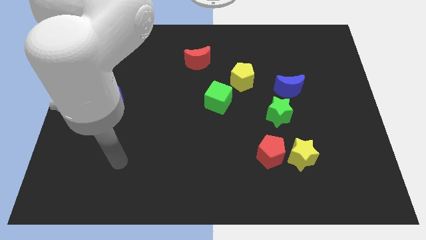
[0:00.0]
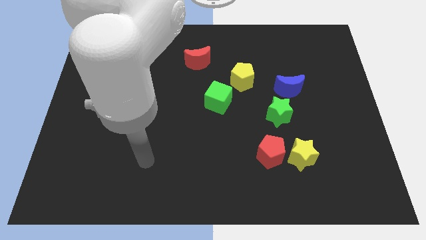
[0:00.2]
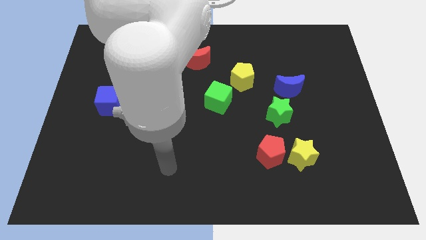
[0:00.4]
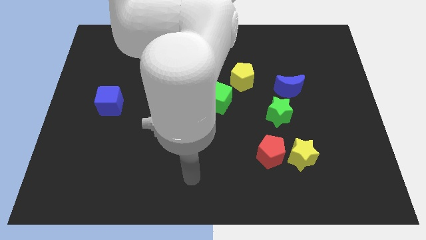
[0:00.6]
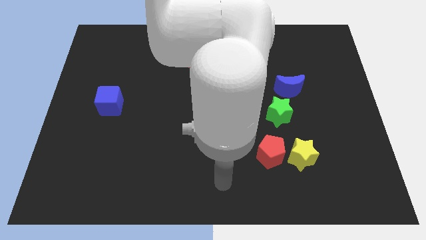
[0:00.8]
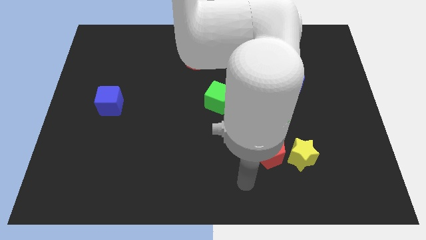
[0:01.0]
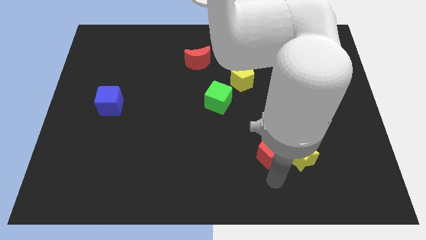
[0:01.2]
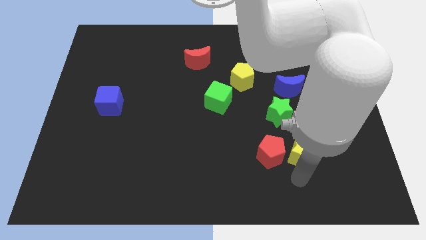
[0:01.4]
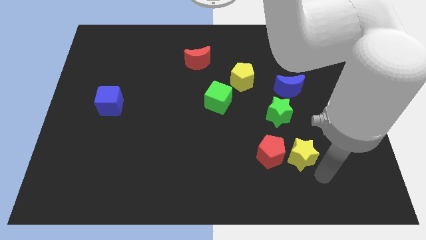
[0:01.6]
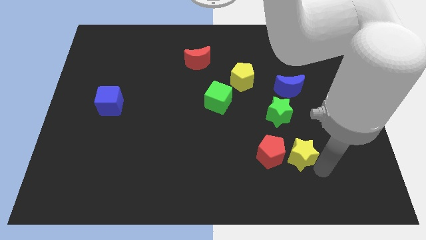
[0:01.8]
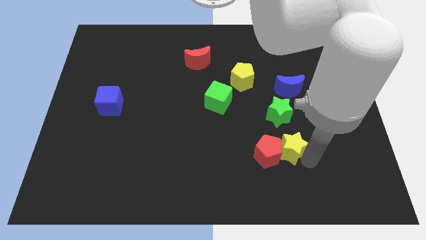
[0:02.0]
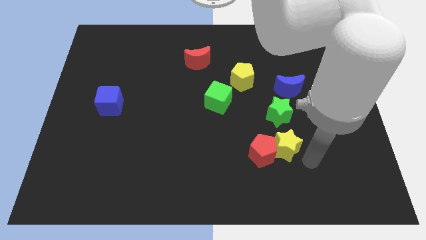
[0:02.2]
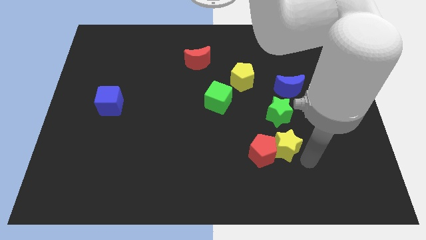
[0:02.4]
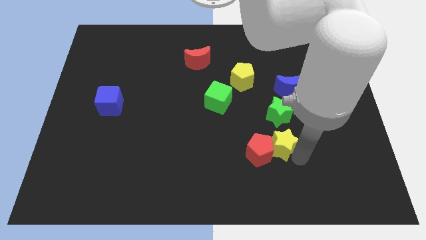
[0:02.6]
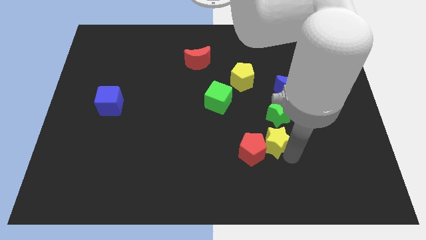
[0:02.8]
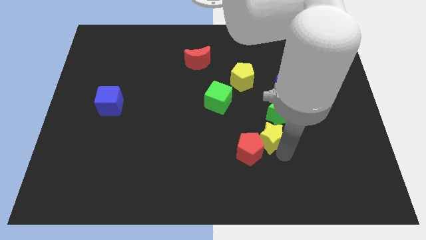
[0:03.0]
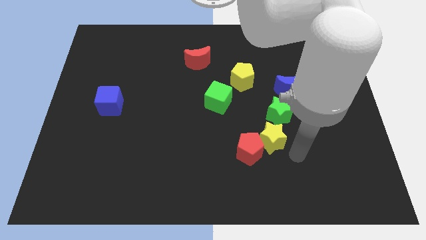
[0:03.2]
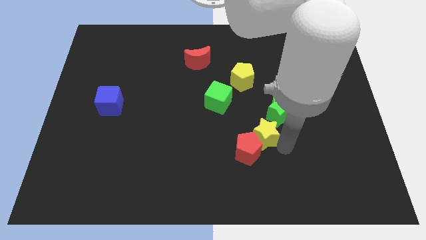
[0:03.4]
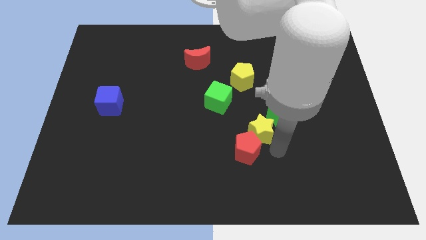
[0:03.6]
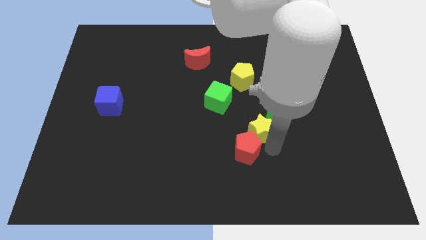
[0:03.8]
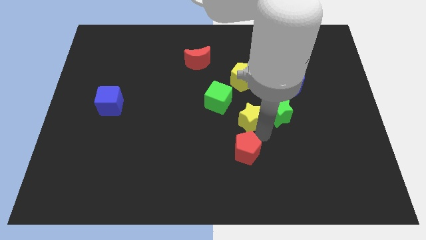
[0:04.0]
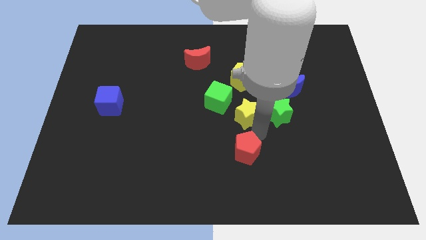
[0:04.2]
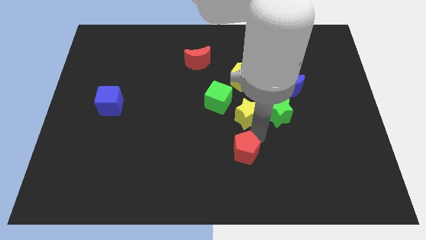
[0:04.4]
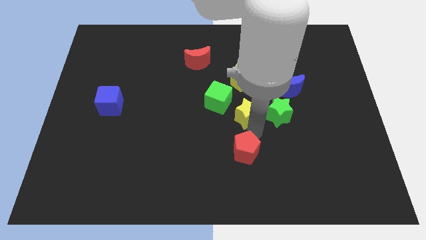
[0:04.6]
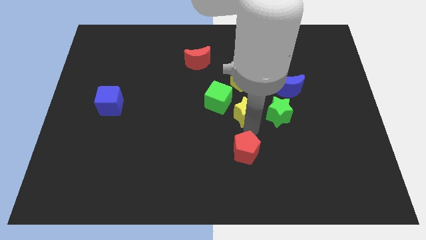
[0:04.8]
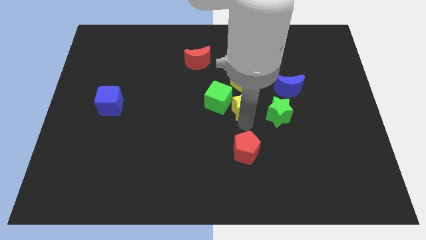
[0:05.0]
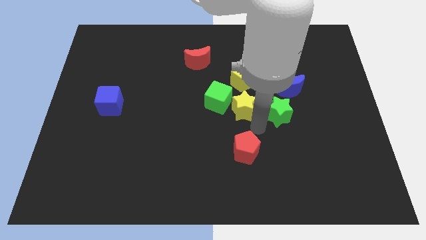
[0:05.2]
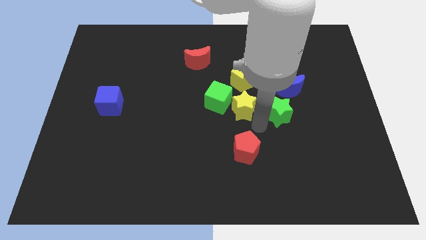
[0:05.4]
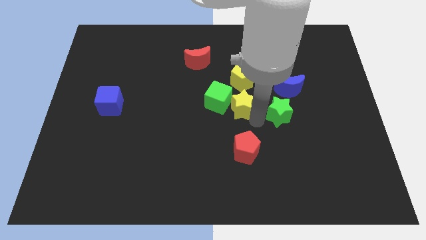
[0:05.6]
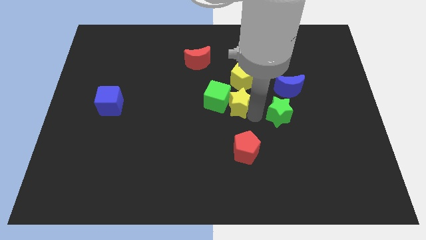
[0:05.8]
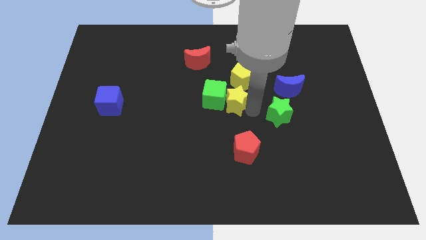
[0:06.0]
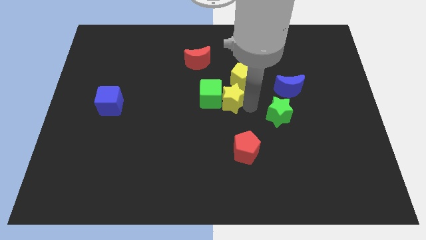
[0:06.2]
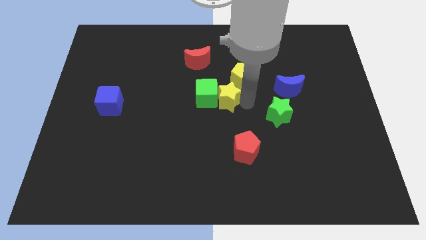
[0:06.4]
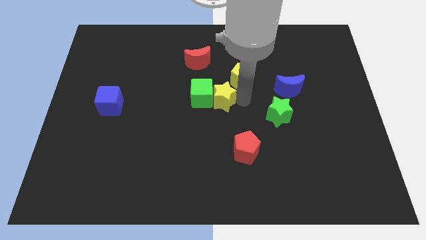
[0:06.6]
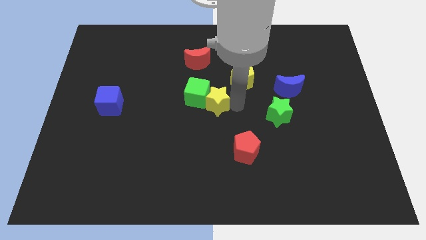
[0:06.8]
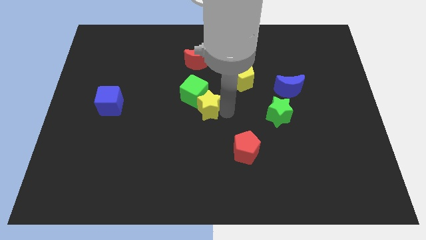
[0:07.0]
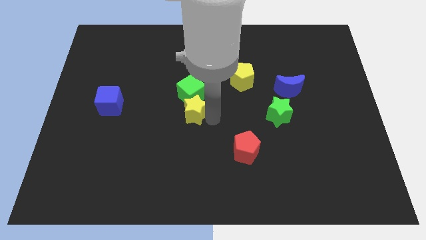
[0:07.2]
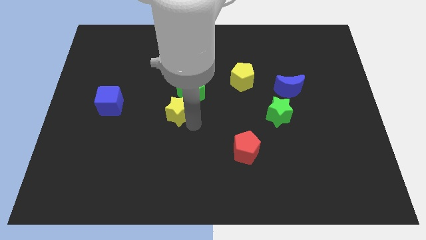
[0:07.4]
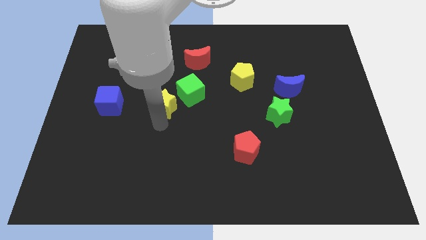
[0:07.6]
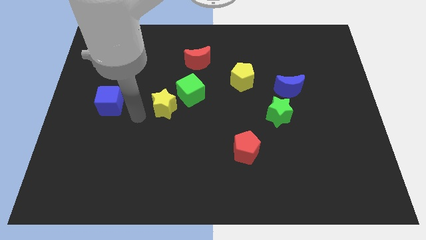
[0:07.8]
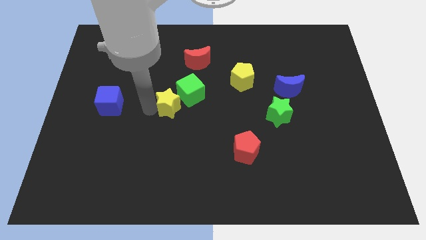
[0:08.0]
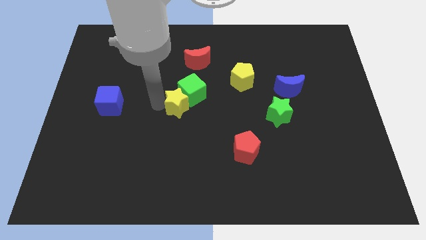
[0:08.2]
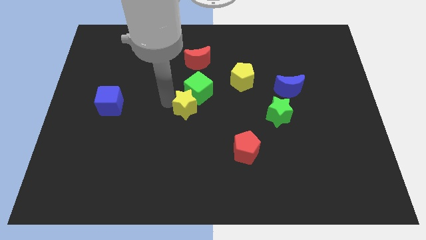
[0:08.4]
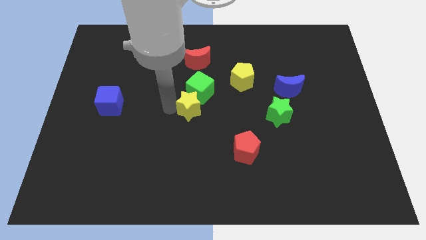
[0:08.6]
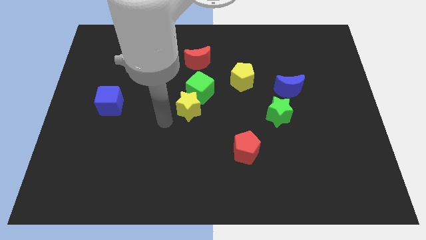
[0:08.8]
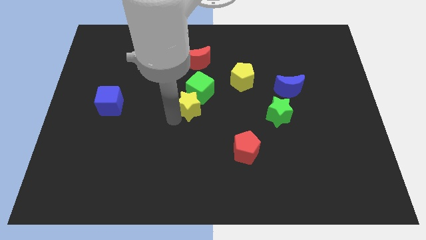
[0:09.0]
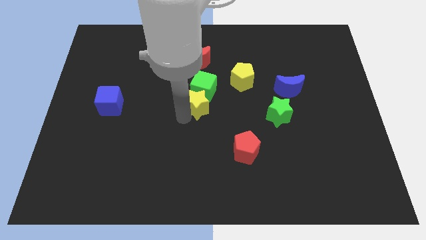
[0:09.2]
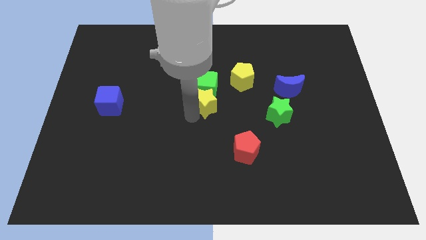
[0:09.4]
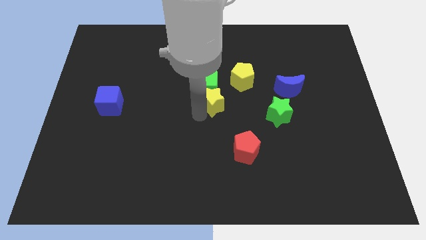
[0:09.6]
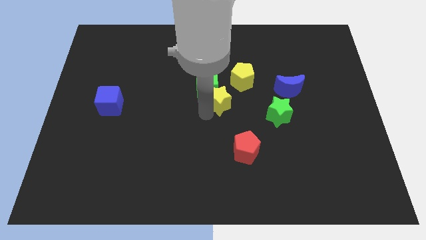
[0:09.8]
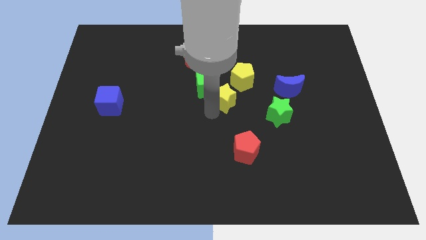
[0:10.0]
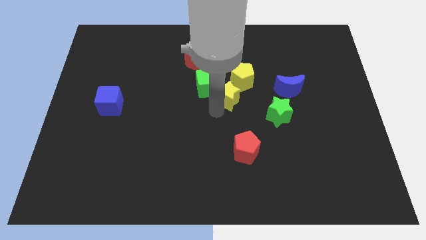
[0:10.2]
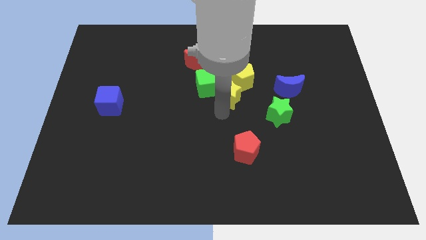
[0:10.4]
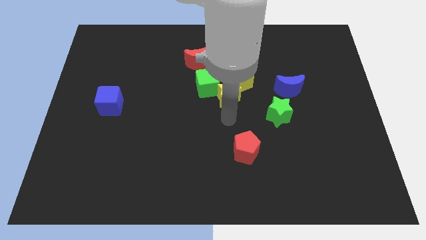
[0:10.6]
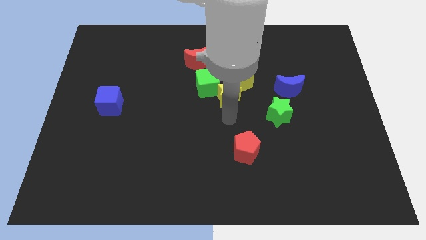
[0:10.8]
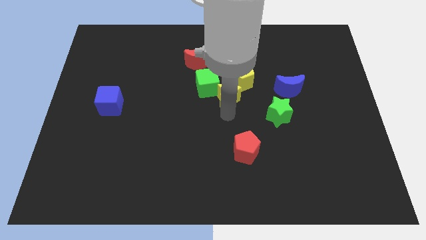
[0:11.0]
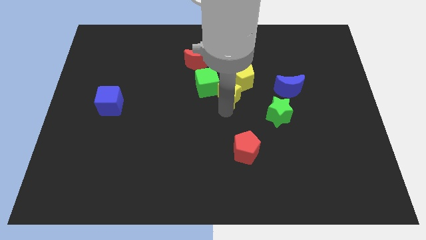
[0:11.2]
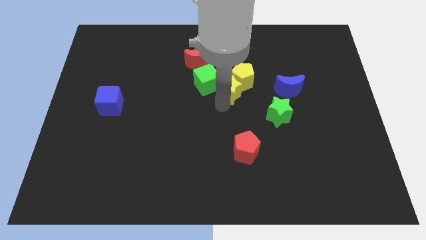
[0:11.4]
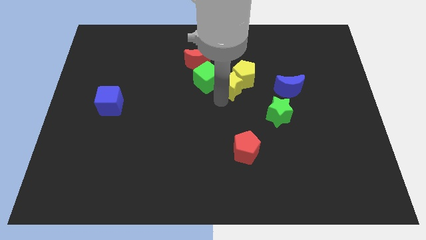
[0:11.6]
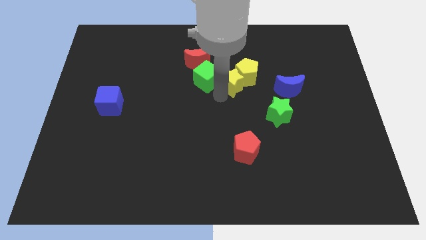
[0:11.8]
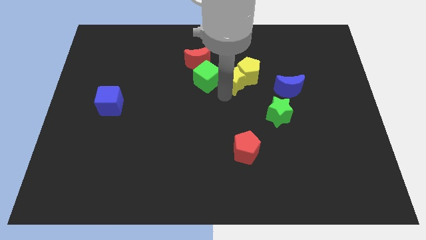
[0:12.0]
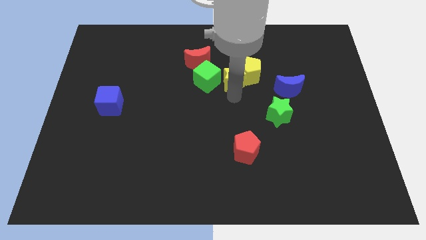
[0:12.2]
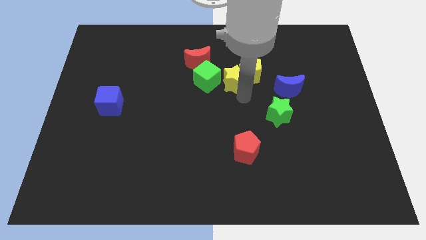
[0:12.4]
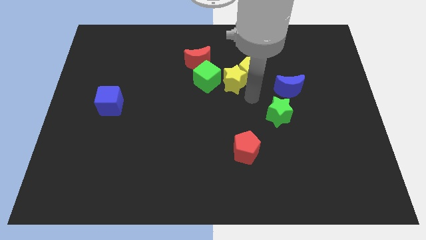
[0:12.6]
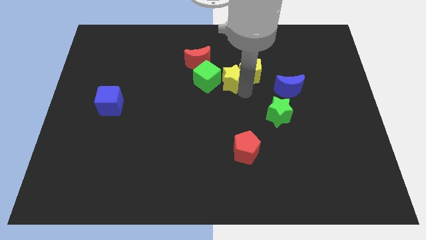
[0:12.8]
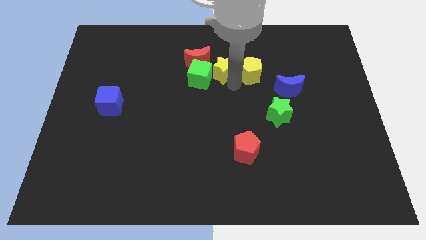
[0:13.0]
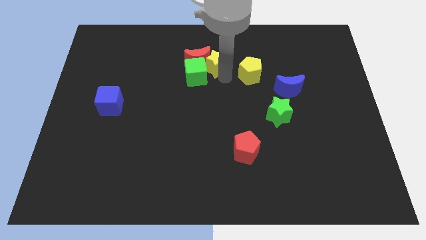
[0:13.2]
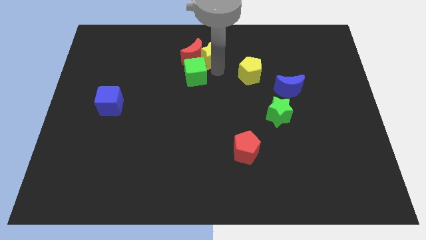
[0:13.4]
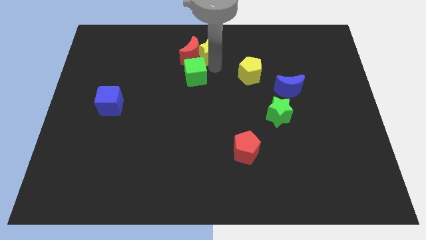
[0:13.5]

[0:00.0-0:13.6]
put the yellow star to the top
